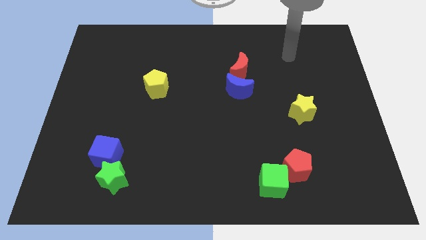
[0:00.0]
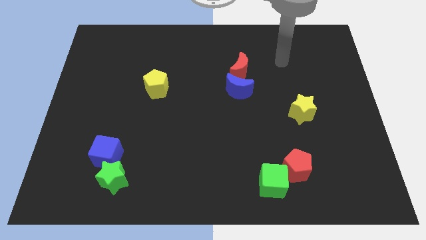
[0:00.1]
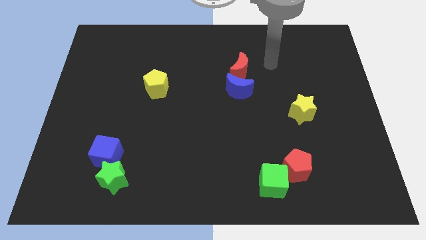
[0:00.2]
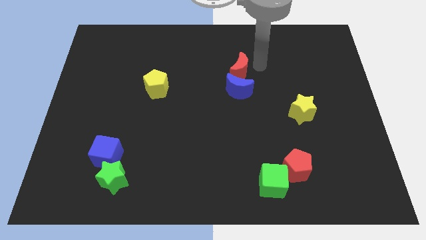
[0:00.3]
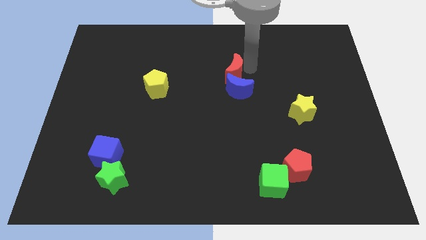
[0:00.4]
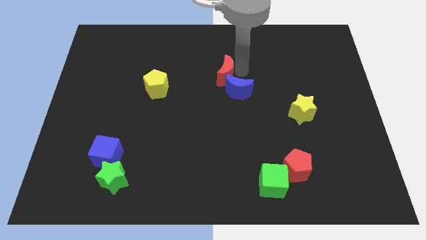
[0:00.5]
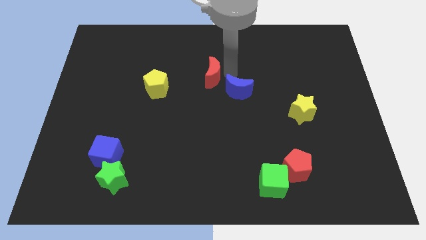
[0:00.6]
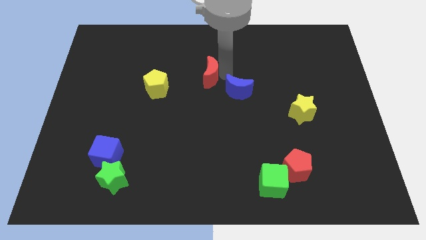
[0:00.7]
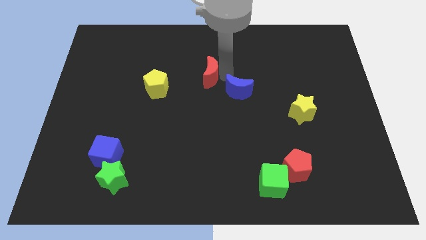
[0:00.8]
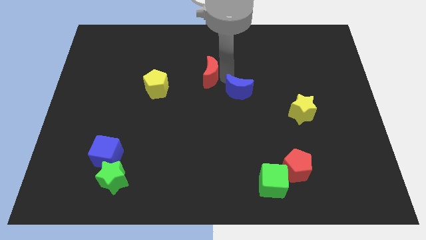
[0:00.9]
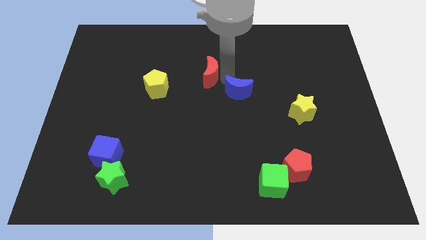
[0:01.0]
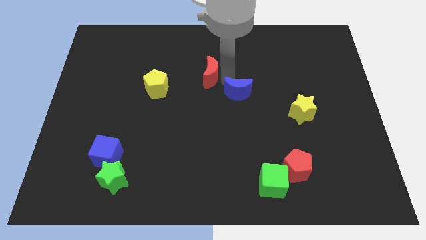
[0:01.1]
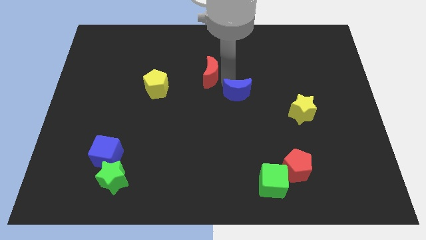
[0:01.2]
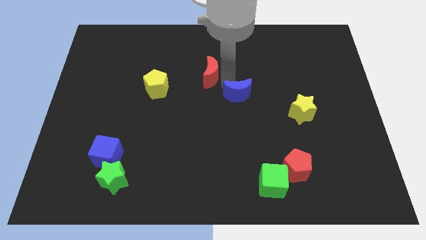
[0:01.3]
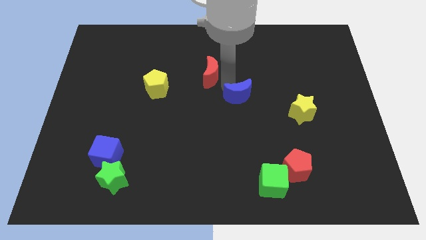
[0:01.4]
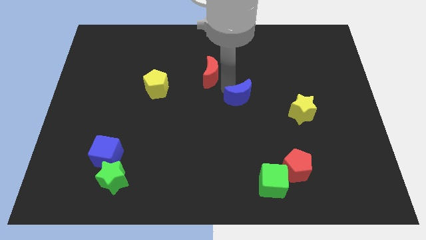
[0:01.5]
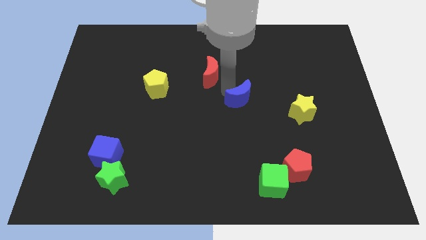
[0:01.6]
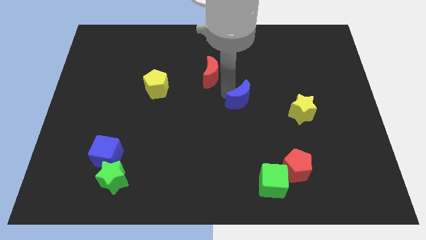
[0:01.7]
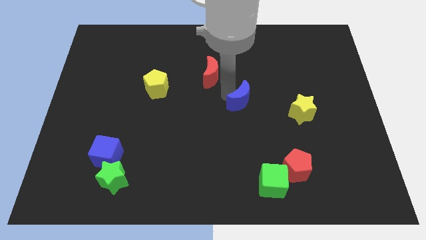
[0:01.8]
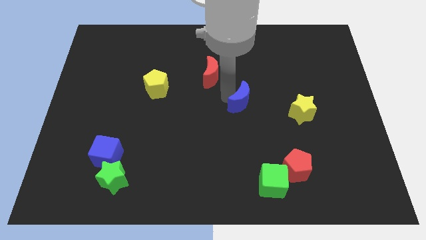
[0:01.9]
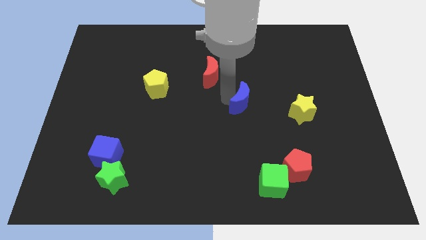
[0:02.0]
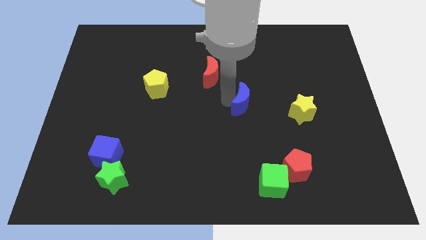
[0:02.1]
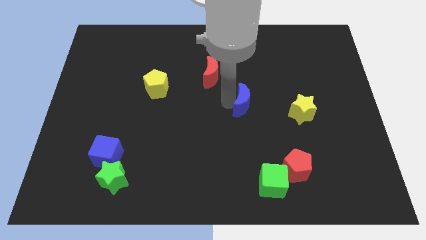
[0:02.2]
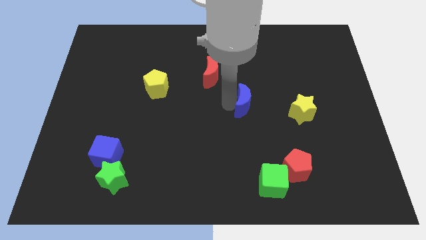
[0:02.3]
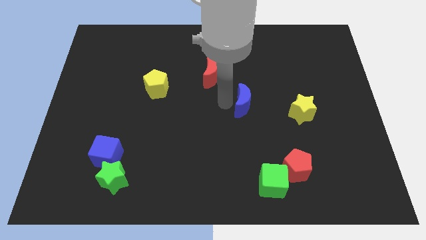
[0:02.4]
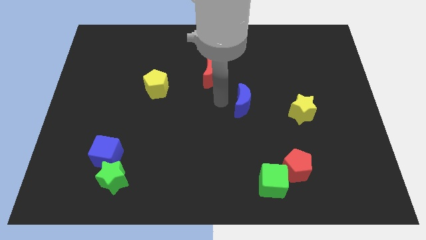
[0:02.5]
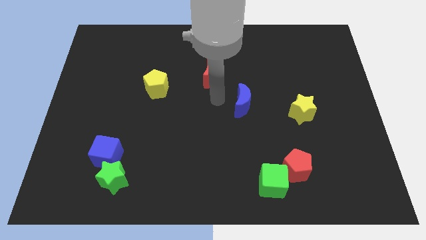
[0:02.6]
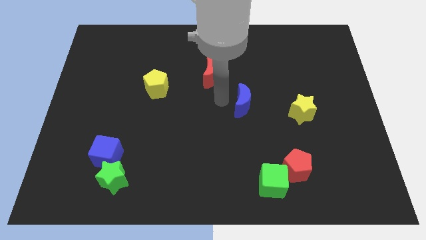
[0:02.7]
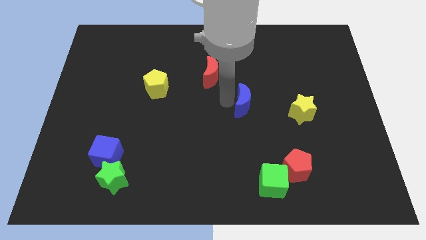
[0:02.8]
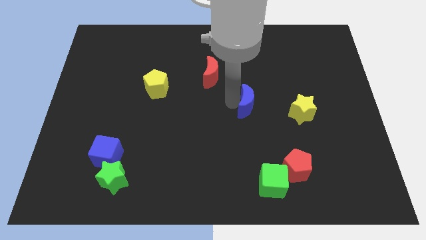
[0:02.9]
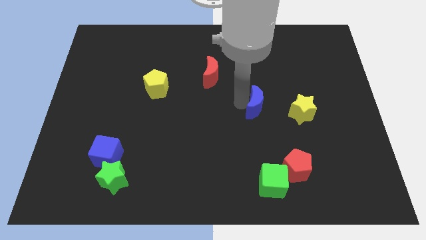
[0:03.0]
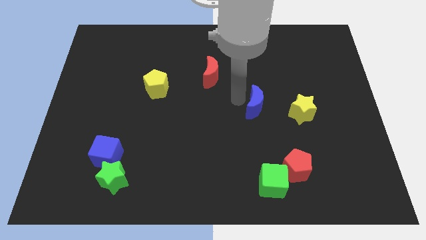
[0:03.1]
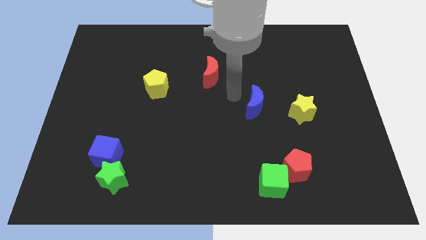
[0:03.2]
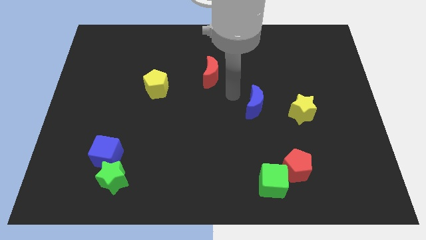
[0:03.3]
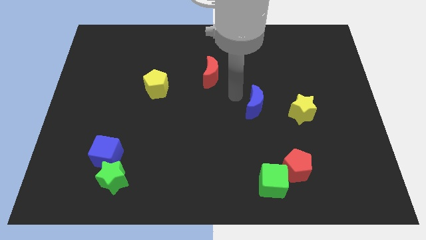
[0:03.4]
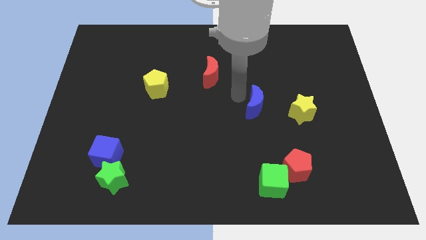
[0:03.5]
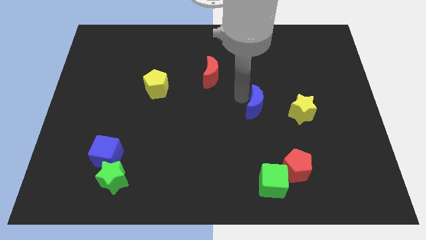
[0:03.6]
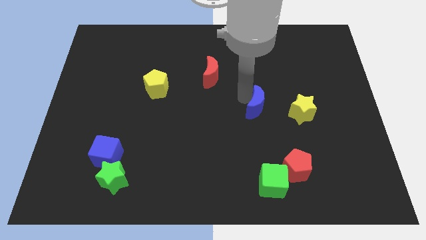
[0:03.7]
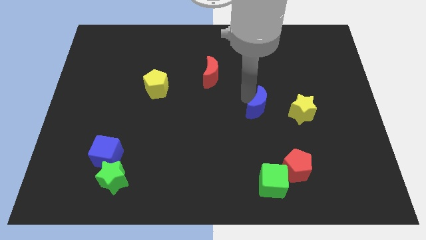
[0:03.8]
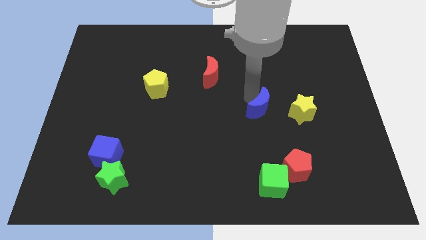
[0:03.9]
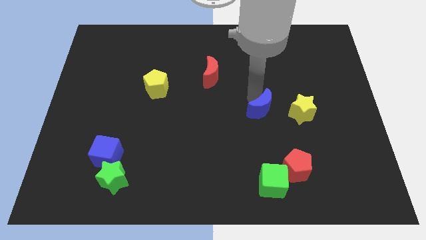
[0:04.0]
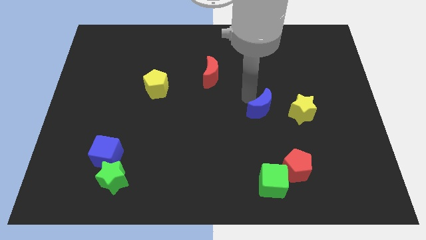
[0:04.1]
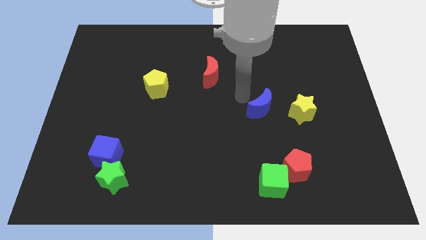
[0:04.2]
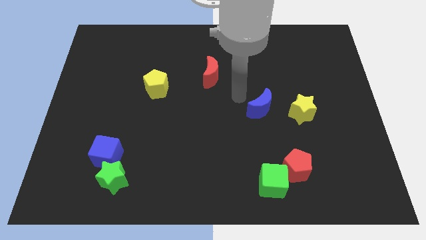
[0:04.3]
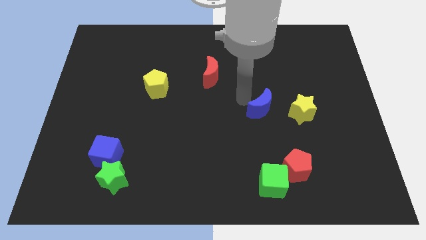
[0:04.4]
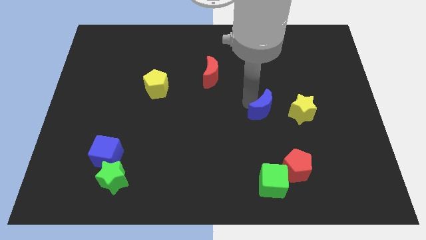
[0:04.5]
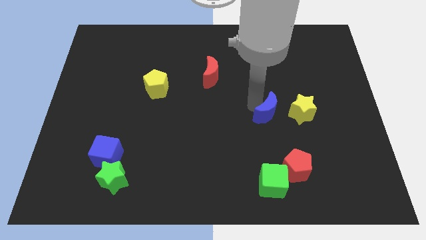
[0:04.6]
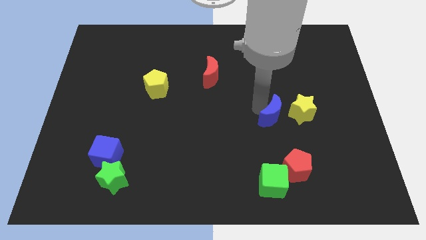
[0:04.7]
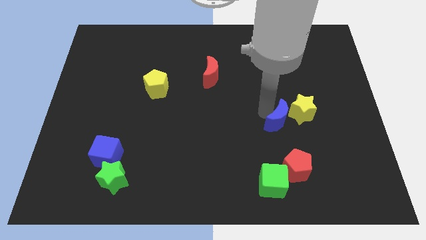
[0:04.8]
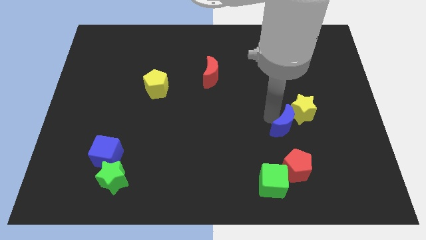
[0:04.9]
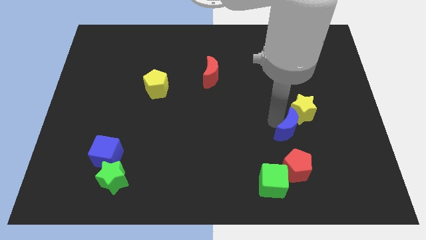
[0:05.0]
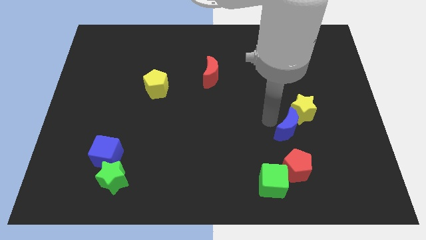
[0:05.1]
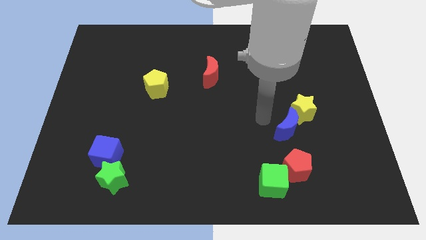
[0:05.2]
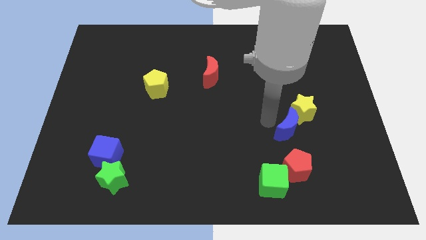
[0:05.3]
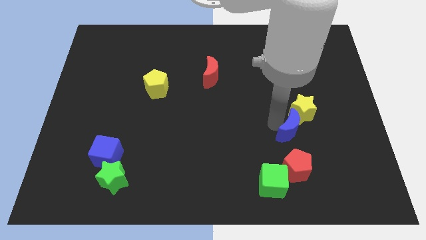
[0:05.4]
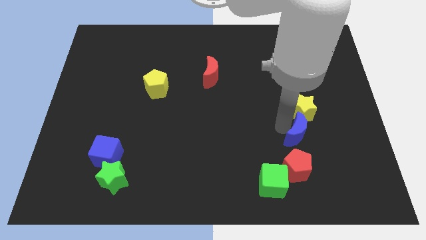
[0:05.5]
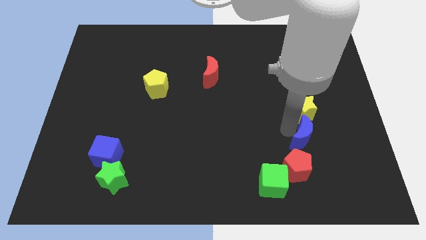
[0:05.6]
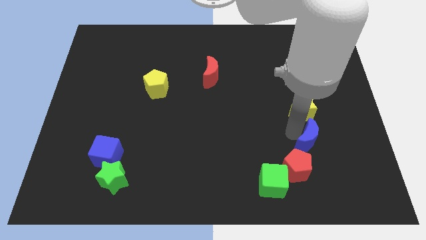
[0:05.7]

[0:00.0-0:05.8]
move the blue moon down and to the right diagonally

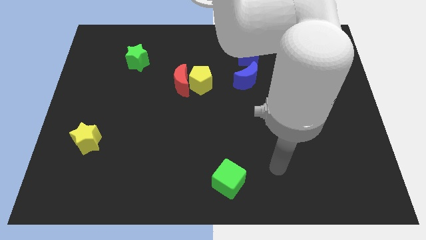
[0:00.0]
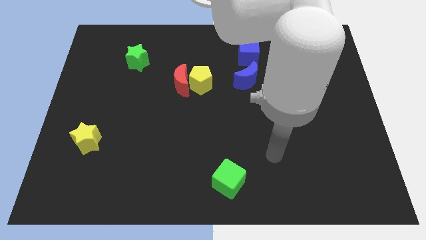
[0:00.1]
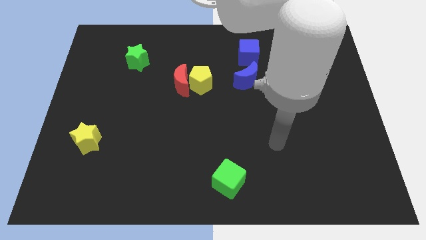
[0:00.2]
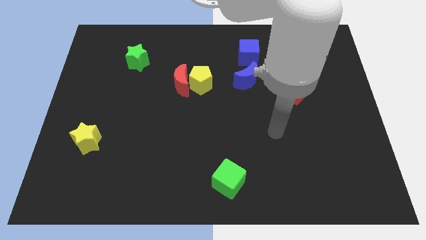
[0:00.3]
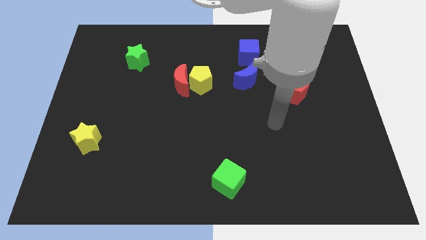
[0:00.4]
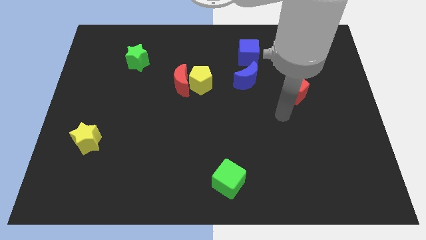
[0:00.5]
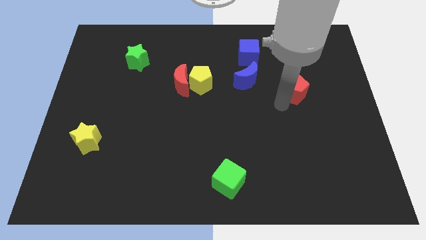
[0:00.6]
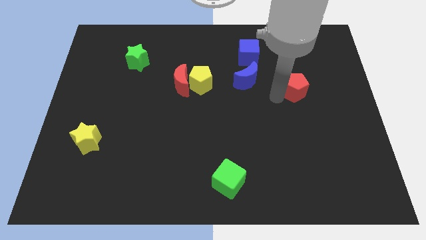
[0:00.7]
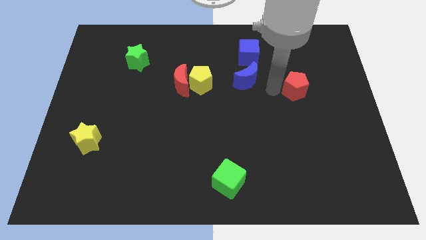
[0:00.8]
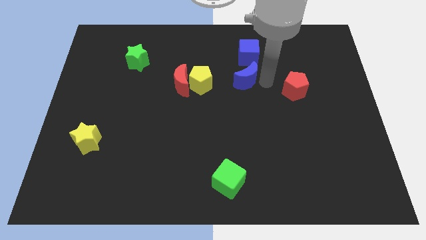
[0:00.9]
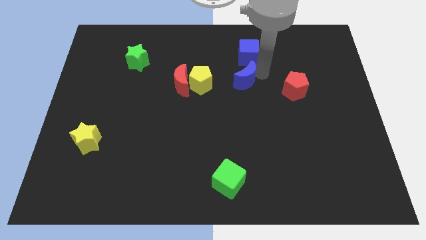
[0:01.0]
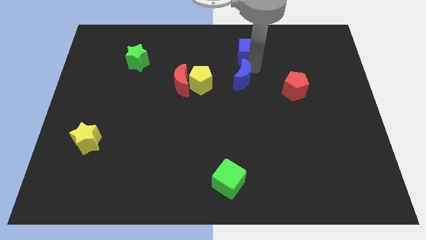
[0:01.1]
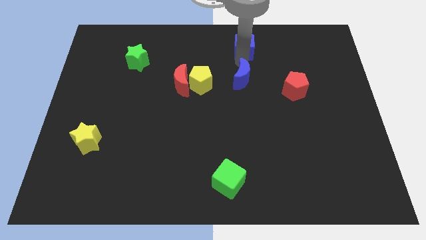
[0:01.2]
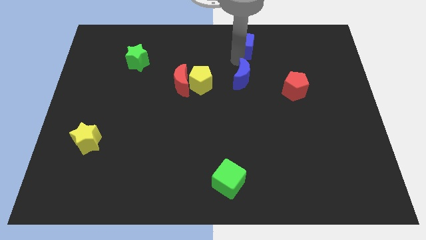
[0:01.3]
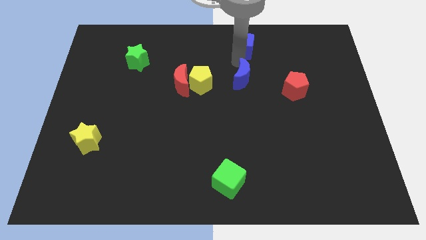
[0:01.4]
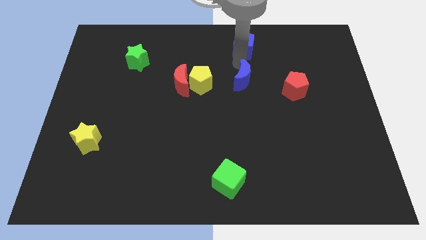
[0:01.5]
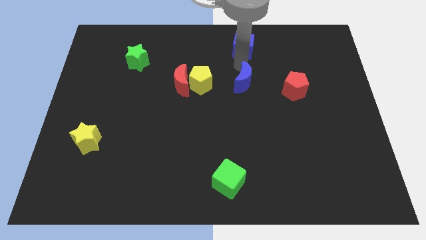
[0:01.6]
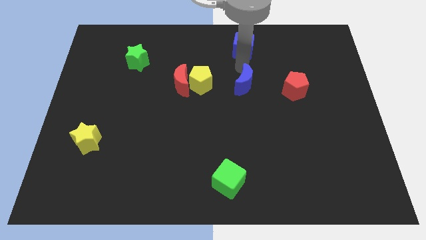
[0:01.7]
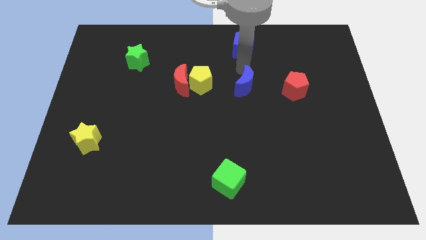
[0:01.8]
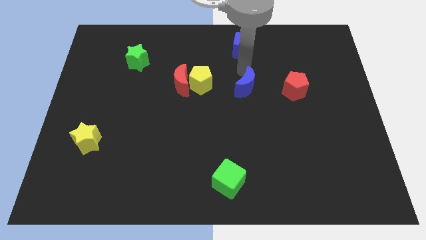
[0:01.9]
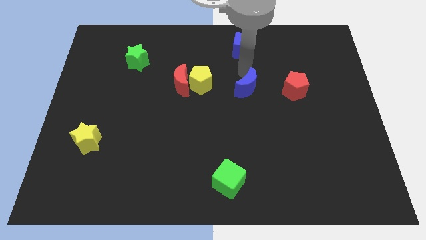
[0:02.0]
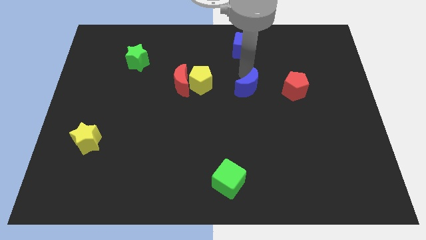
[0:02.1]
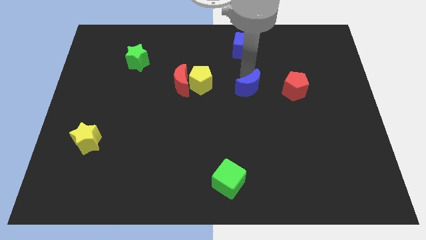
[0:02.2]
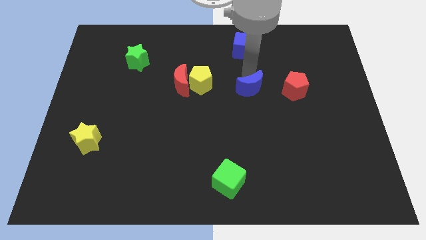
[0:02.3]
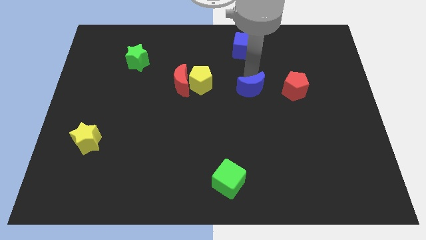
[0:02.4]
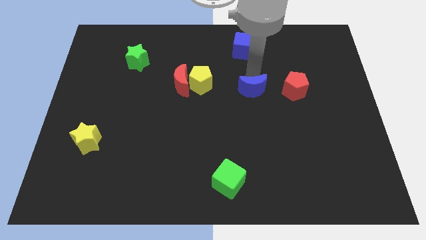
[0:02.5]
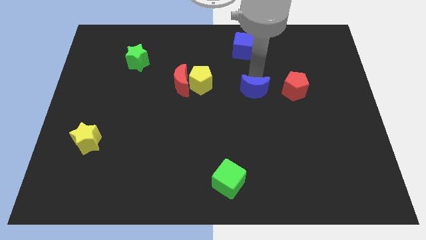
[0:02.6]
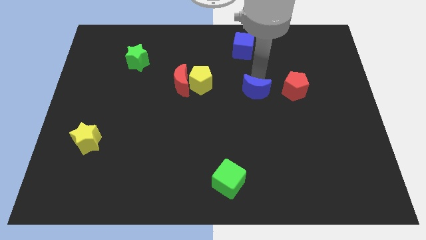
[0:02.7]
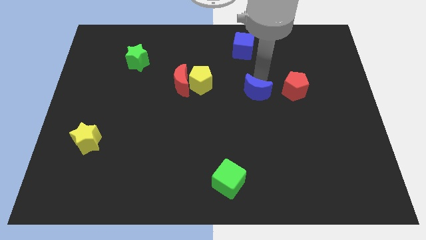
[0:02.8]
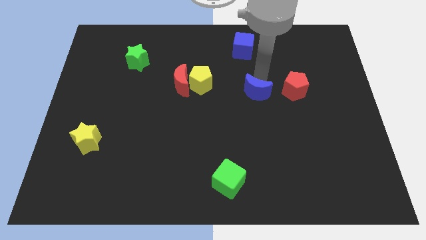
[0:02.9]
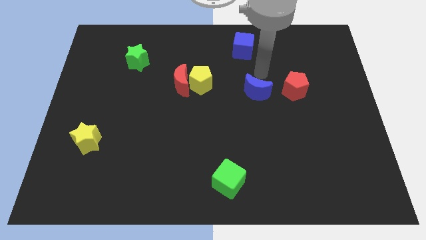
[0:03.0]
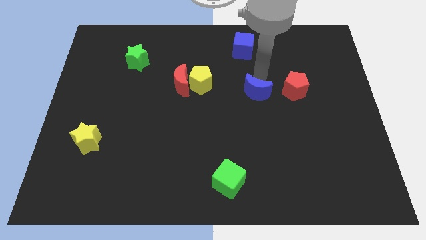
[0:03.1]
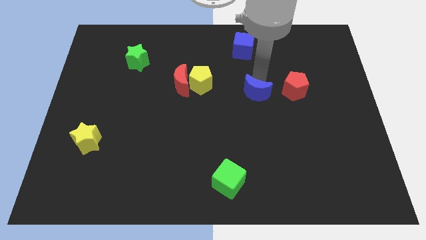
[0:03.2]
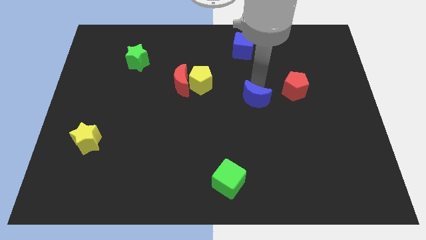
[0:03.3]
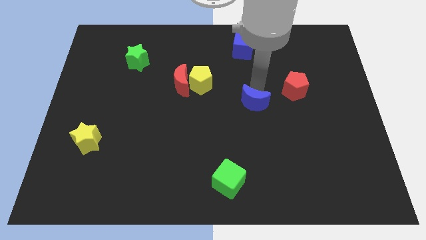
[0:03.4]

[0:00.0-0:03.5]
move the blue moon down a little
